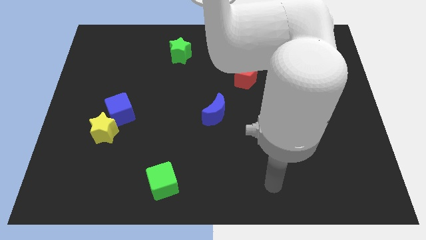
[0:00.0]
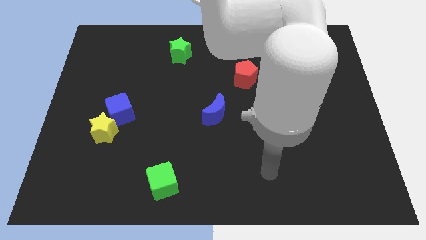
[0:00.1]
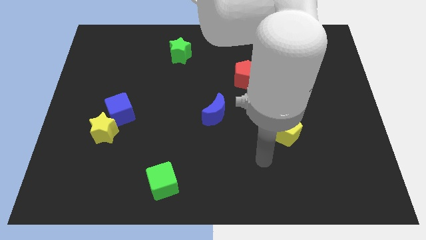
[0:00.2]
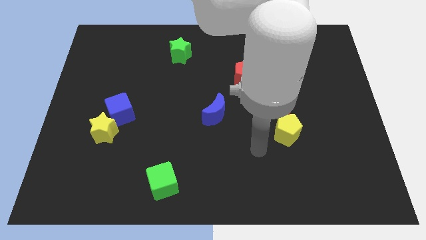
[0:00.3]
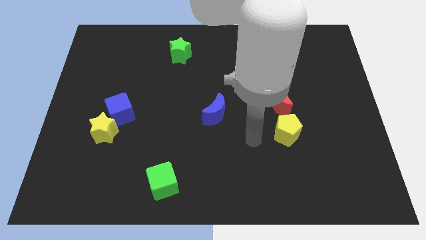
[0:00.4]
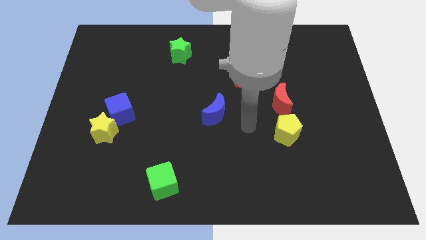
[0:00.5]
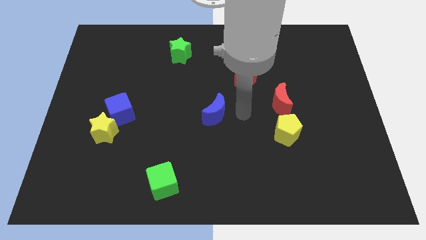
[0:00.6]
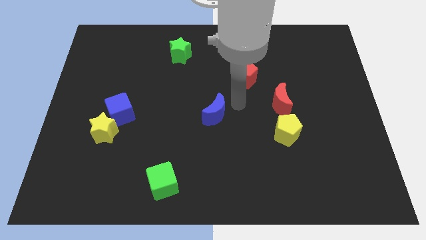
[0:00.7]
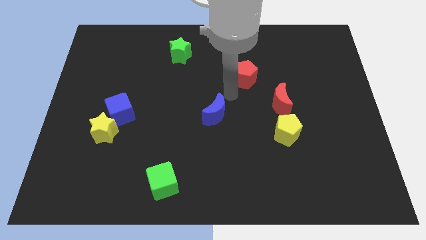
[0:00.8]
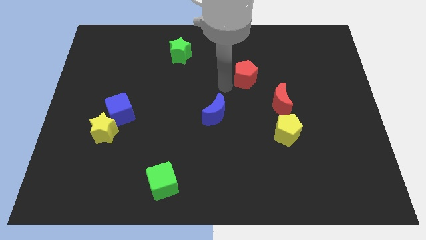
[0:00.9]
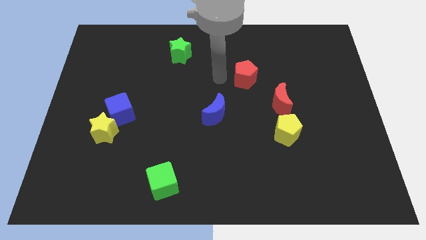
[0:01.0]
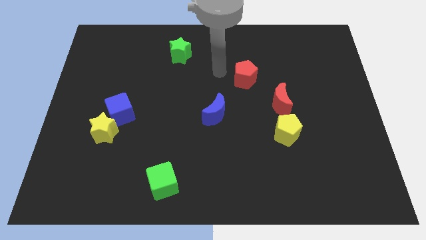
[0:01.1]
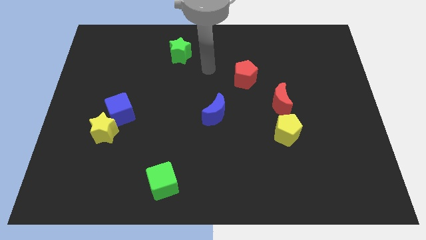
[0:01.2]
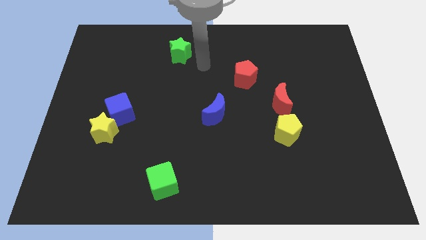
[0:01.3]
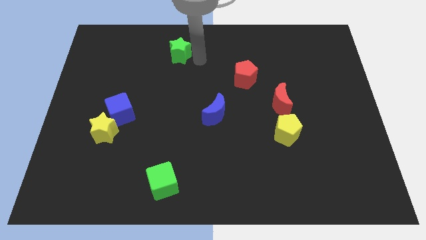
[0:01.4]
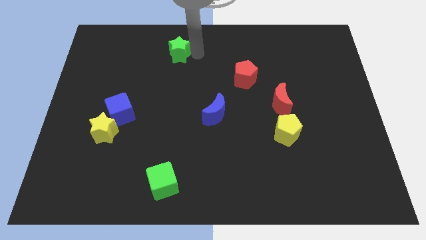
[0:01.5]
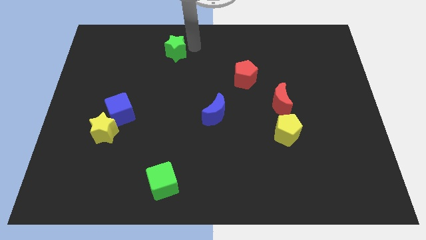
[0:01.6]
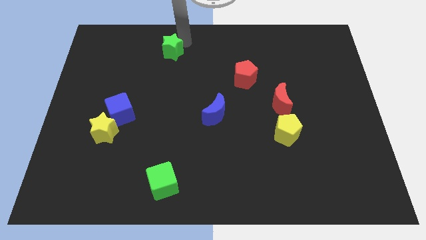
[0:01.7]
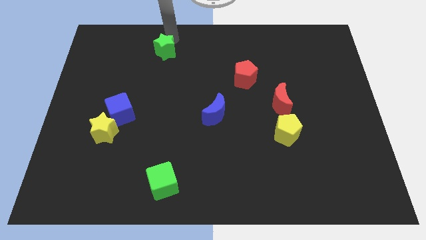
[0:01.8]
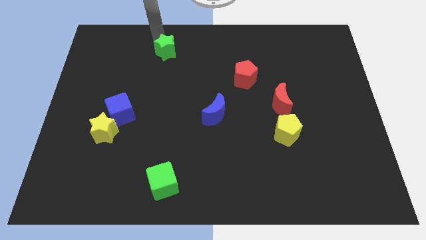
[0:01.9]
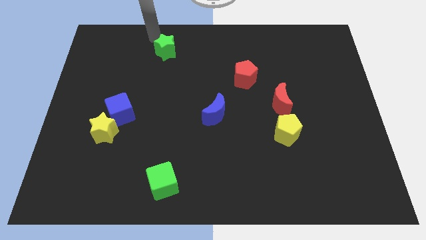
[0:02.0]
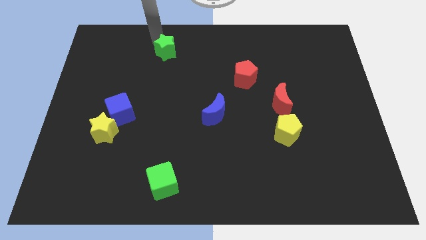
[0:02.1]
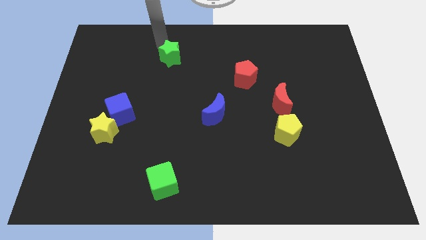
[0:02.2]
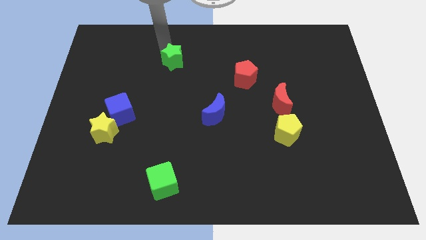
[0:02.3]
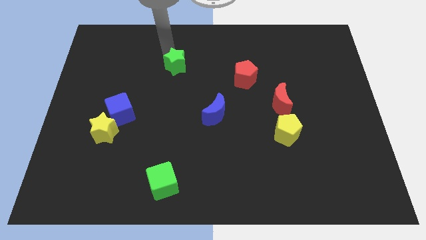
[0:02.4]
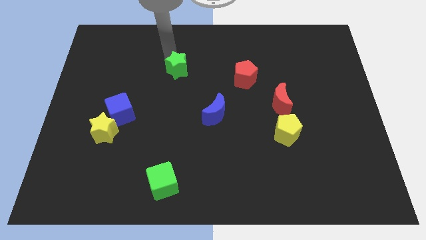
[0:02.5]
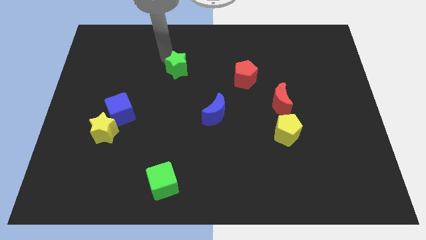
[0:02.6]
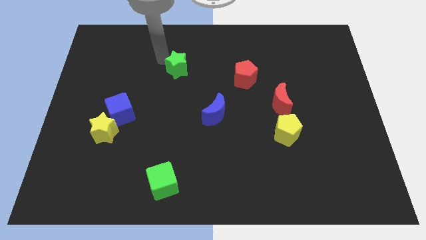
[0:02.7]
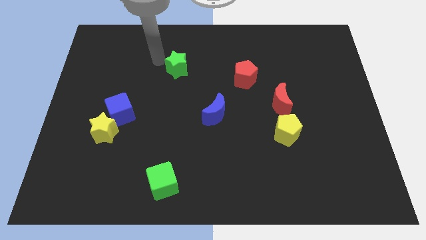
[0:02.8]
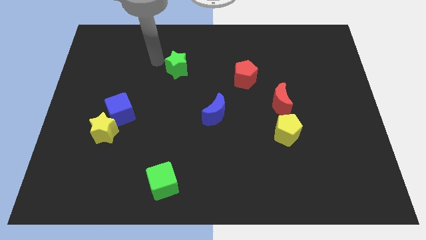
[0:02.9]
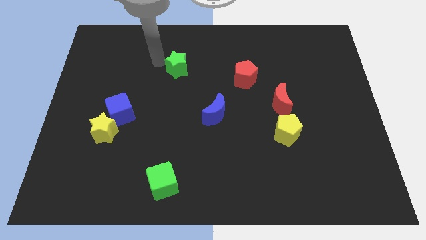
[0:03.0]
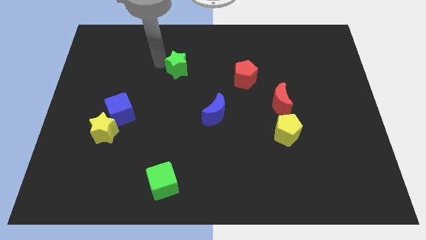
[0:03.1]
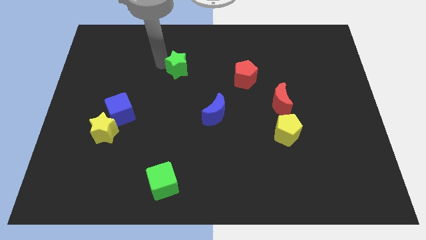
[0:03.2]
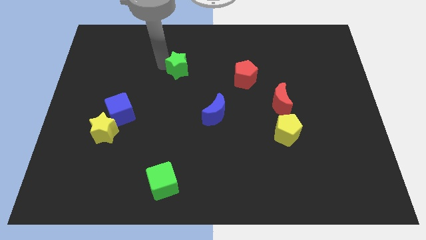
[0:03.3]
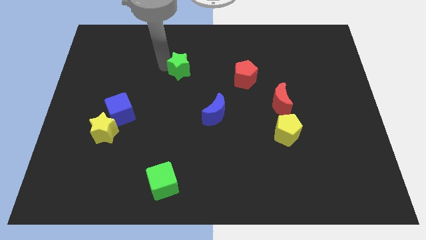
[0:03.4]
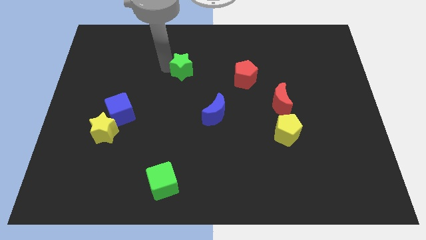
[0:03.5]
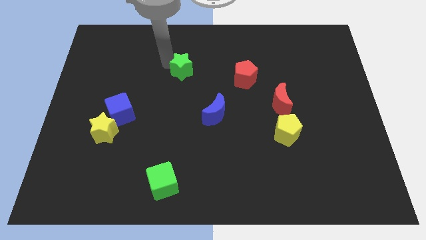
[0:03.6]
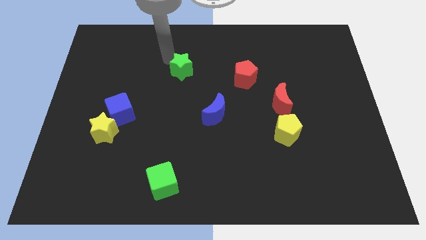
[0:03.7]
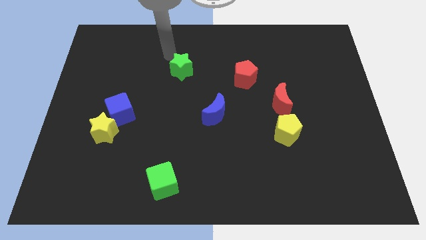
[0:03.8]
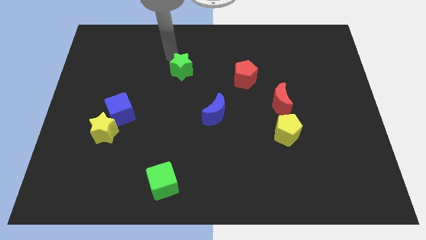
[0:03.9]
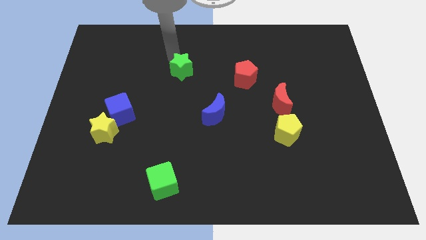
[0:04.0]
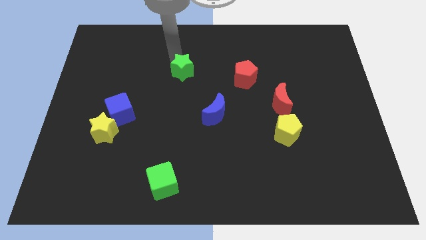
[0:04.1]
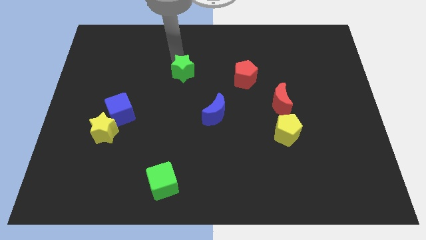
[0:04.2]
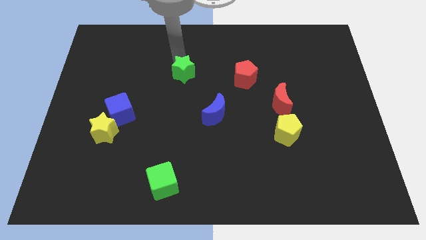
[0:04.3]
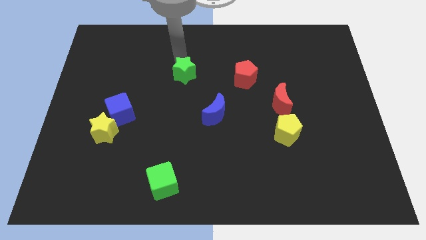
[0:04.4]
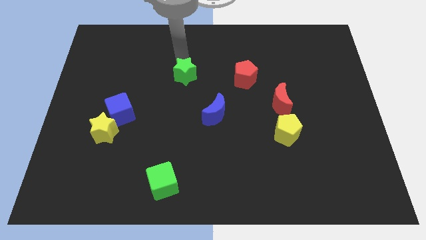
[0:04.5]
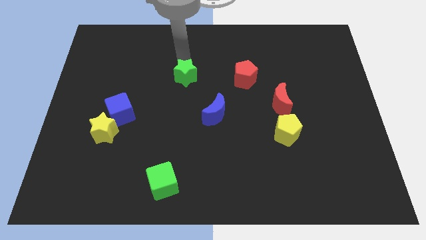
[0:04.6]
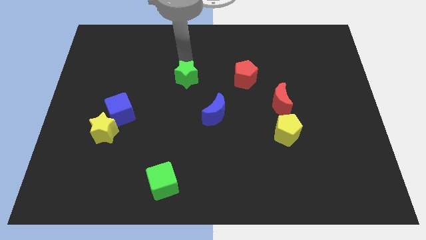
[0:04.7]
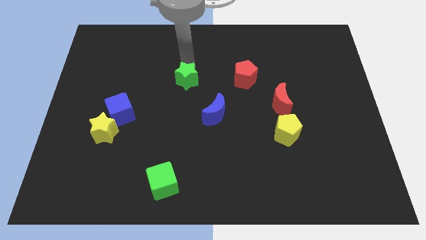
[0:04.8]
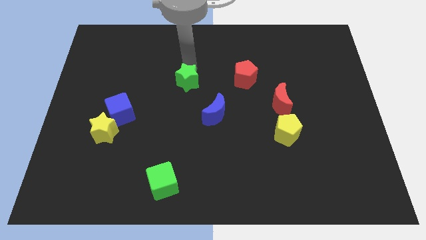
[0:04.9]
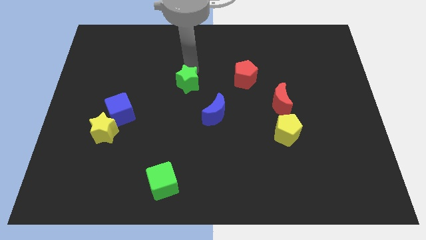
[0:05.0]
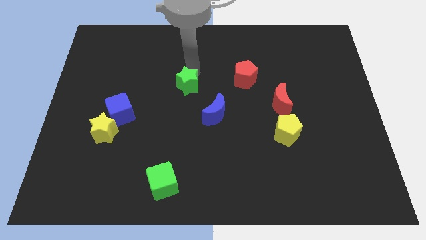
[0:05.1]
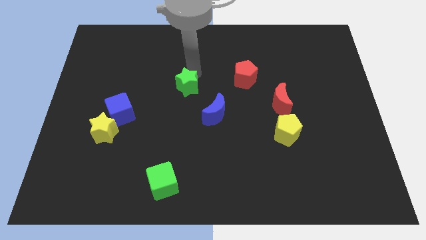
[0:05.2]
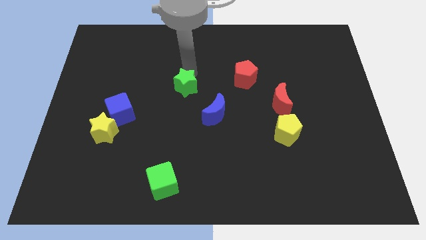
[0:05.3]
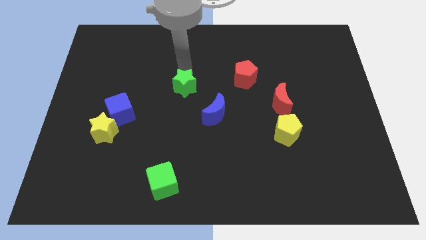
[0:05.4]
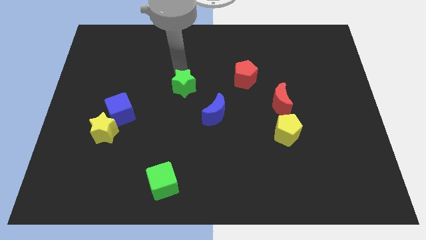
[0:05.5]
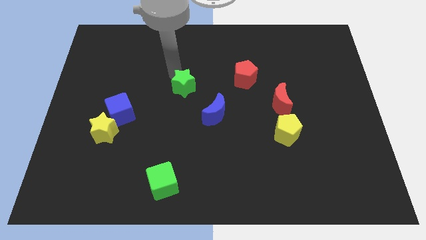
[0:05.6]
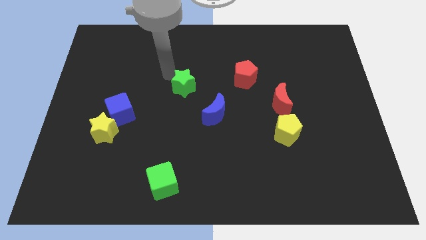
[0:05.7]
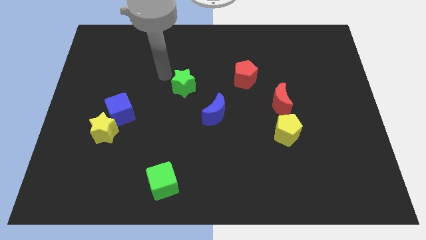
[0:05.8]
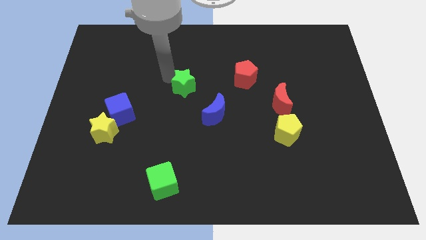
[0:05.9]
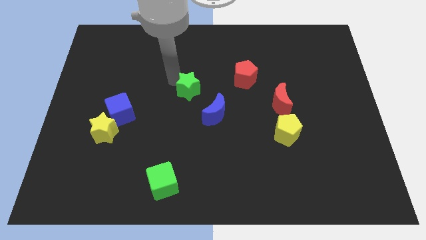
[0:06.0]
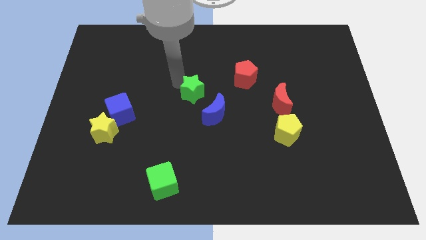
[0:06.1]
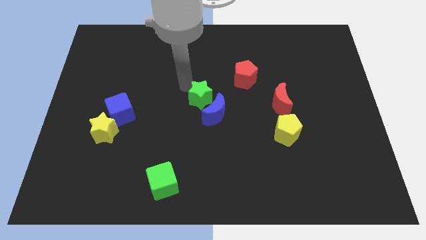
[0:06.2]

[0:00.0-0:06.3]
slide the green star close to the blue moon
